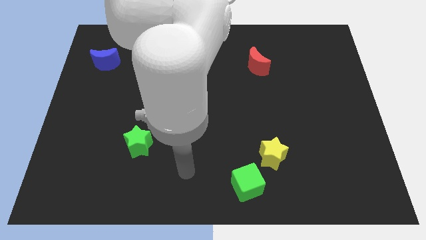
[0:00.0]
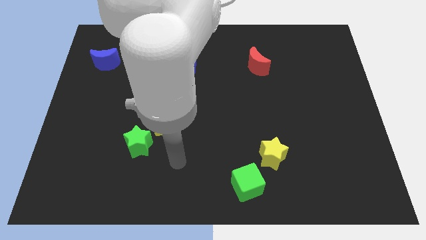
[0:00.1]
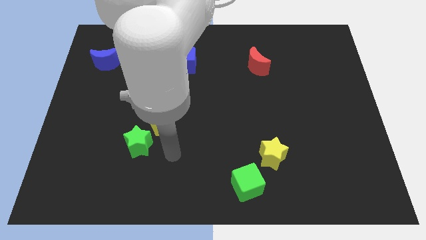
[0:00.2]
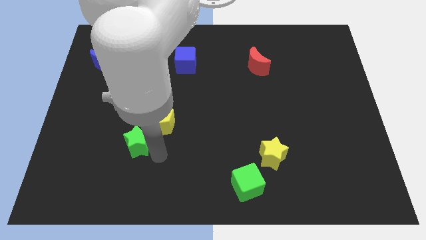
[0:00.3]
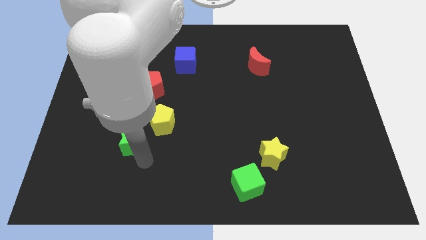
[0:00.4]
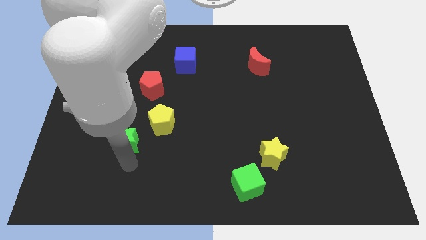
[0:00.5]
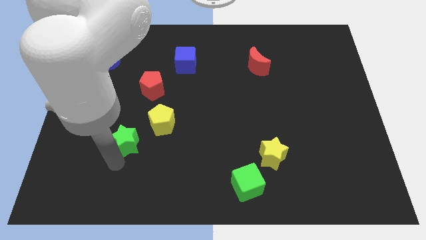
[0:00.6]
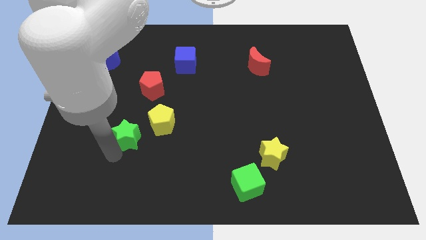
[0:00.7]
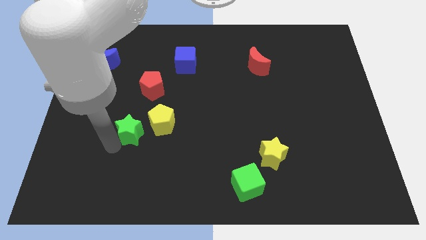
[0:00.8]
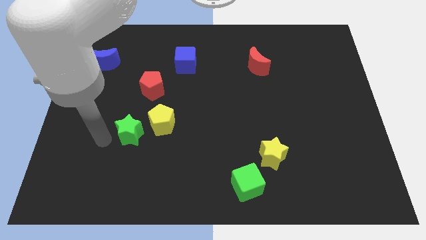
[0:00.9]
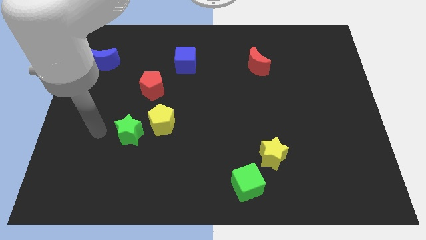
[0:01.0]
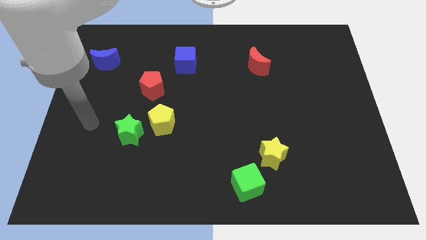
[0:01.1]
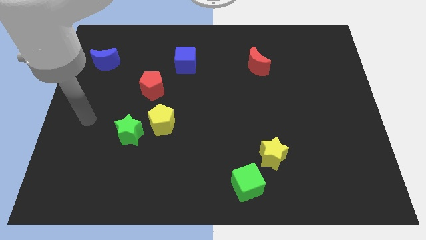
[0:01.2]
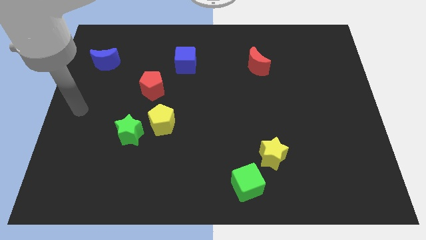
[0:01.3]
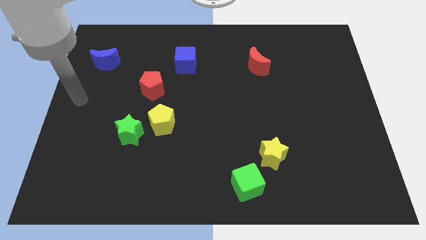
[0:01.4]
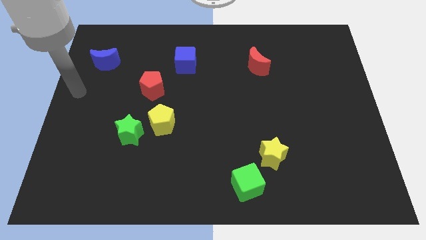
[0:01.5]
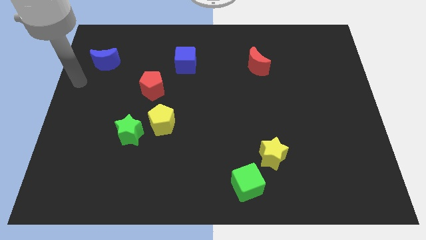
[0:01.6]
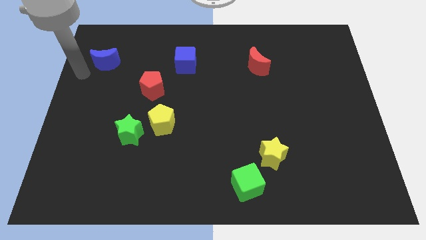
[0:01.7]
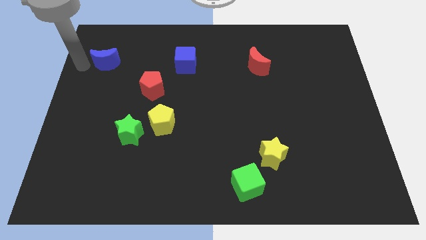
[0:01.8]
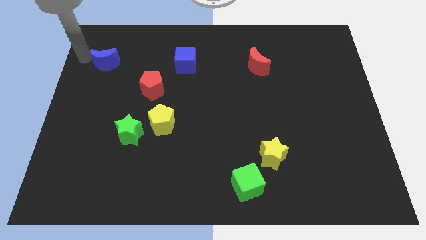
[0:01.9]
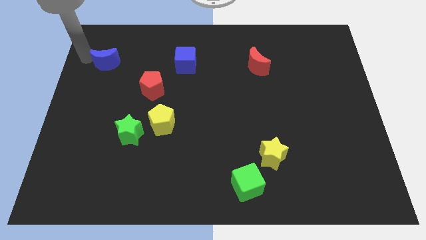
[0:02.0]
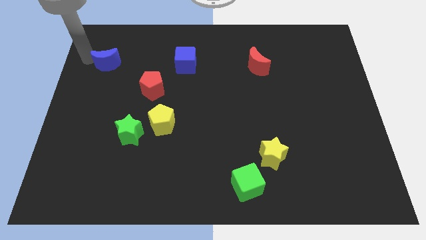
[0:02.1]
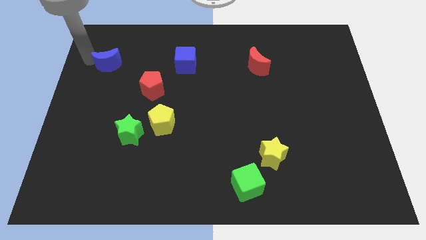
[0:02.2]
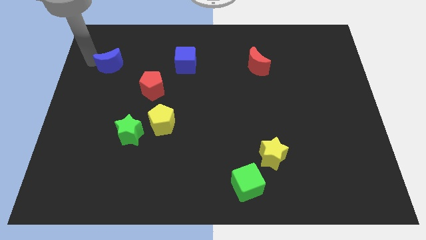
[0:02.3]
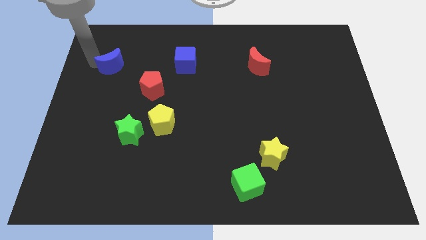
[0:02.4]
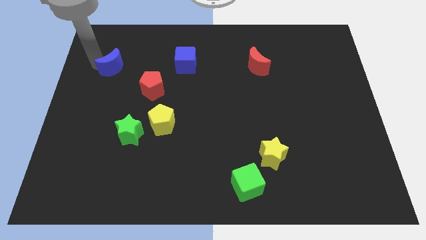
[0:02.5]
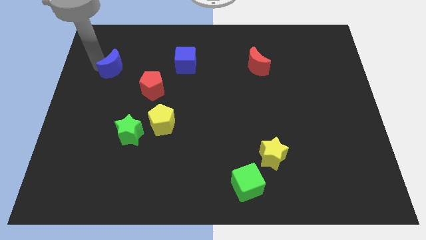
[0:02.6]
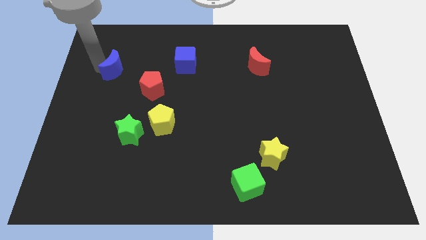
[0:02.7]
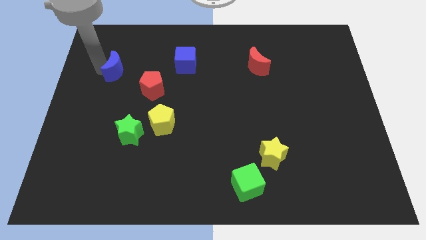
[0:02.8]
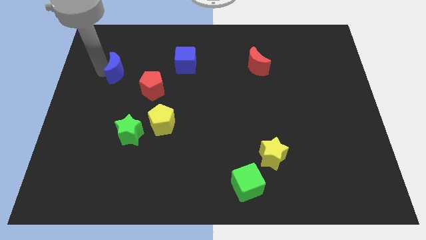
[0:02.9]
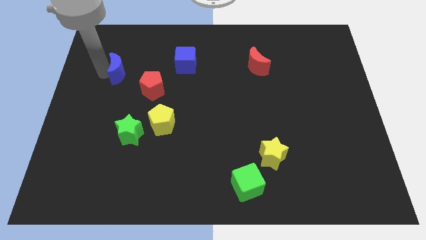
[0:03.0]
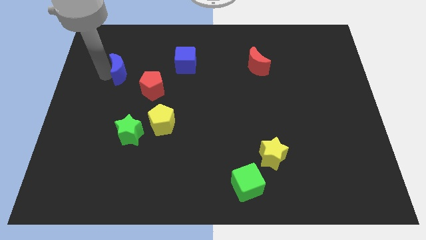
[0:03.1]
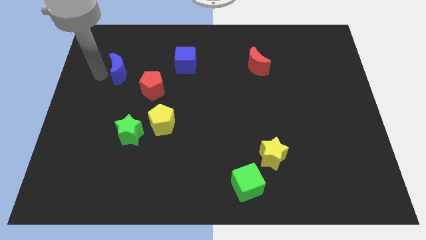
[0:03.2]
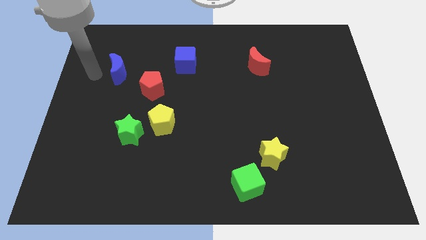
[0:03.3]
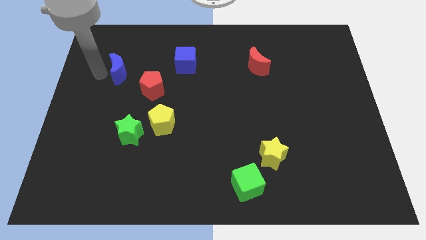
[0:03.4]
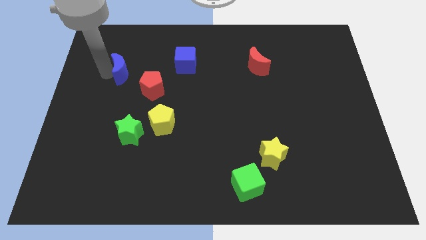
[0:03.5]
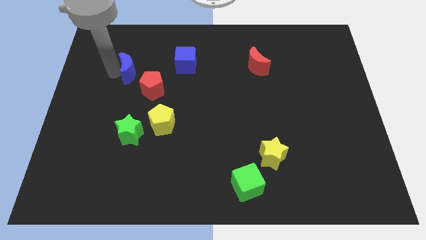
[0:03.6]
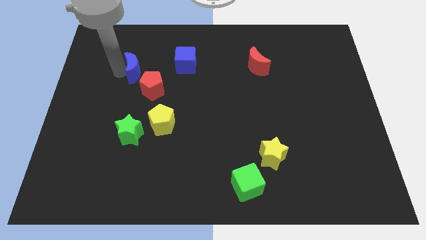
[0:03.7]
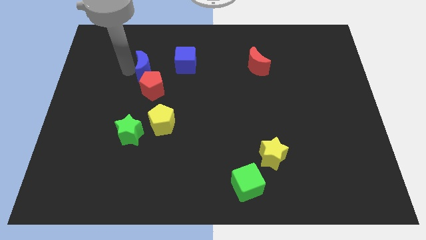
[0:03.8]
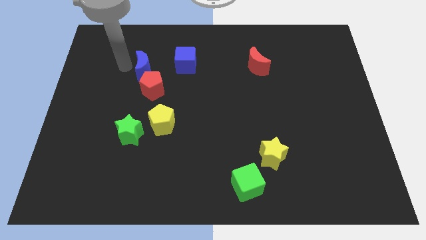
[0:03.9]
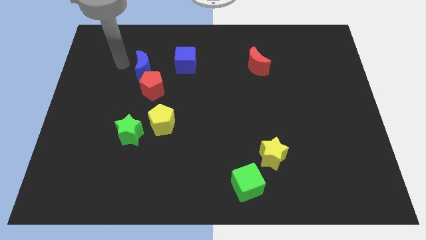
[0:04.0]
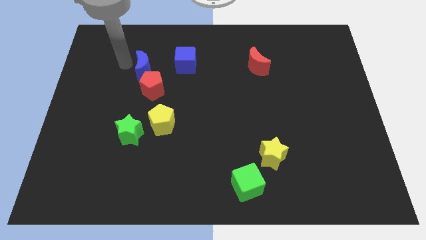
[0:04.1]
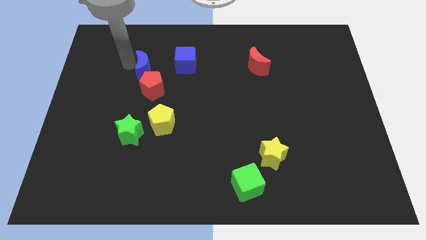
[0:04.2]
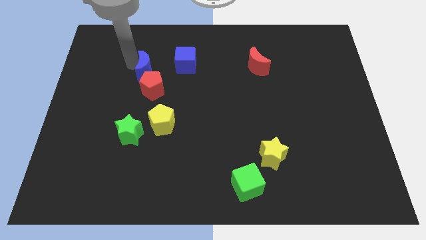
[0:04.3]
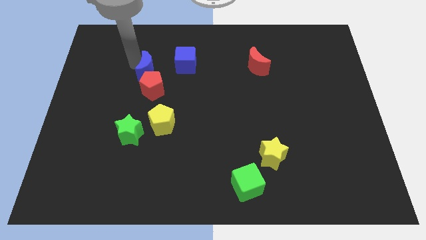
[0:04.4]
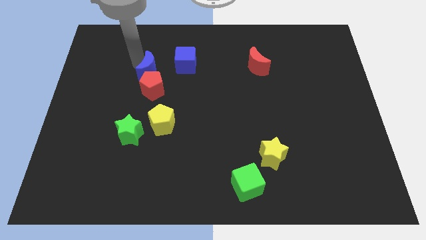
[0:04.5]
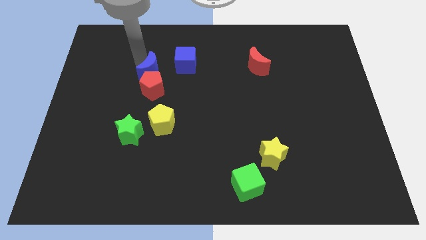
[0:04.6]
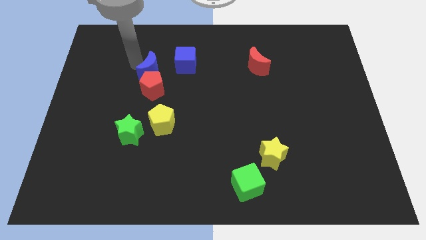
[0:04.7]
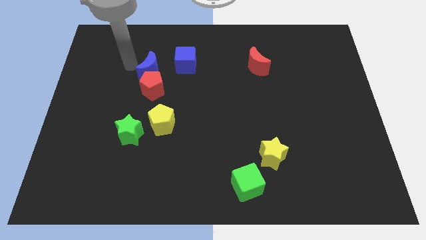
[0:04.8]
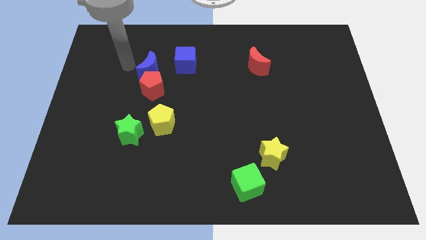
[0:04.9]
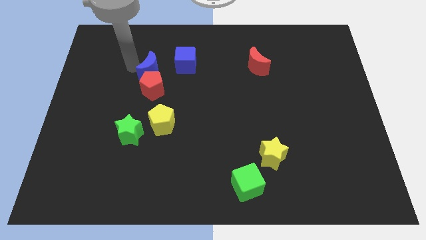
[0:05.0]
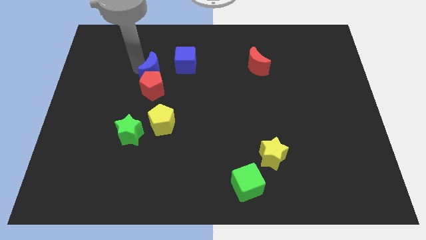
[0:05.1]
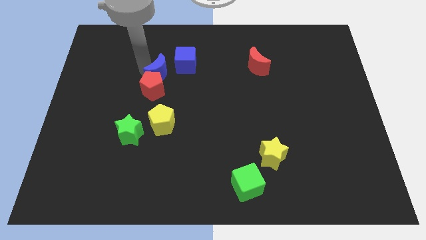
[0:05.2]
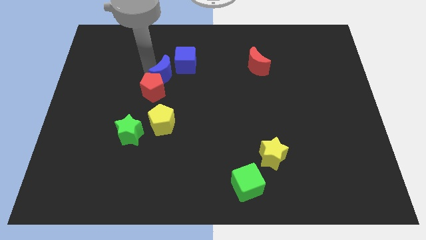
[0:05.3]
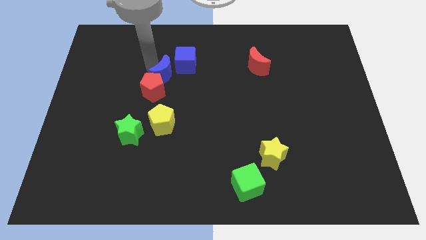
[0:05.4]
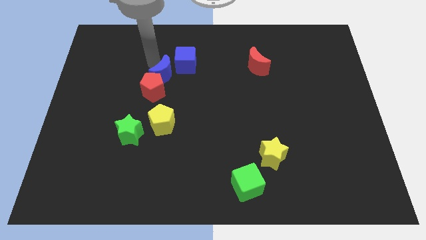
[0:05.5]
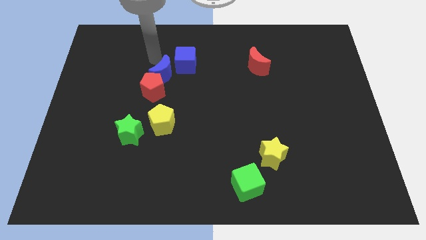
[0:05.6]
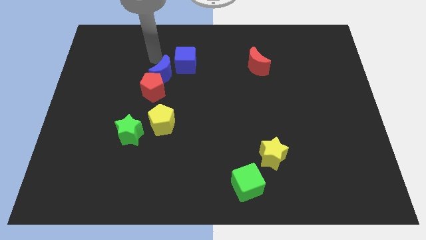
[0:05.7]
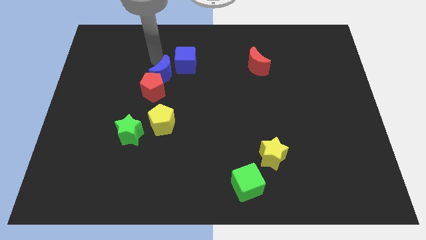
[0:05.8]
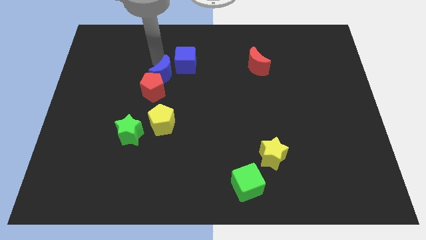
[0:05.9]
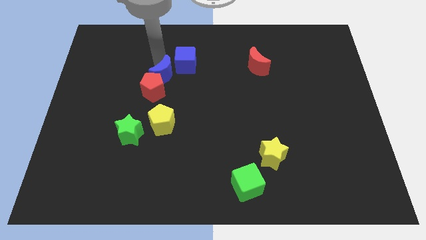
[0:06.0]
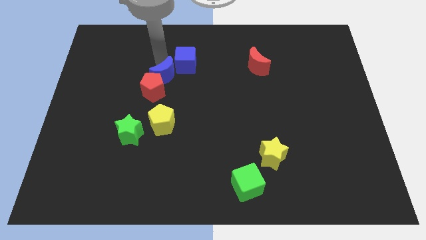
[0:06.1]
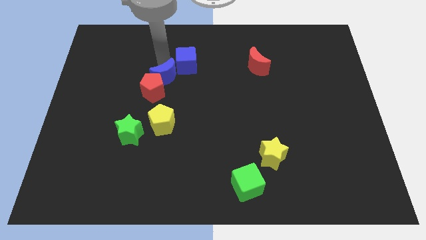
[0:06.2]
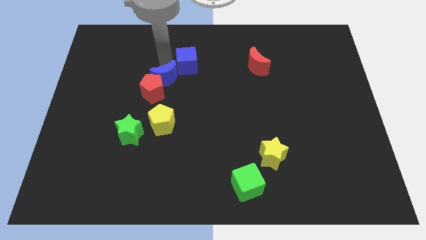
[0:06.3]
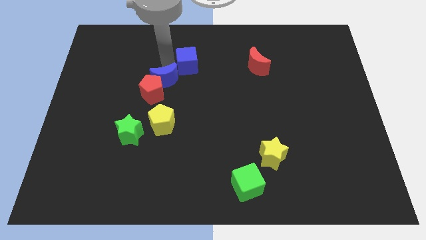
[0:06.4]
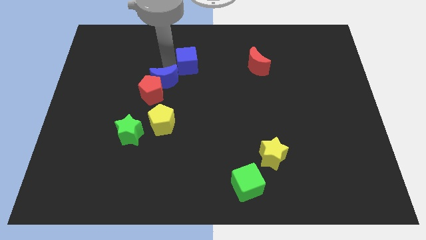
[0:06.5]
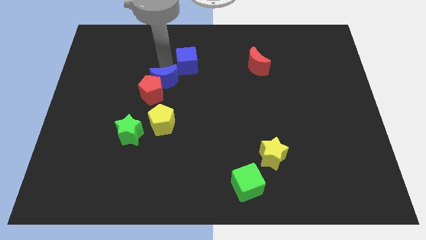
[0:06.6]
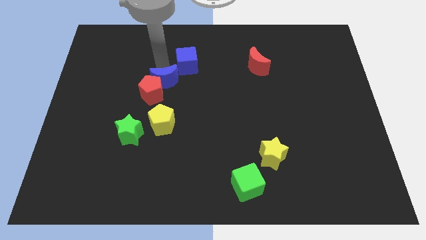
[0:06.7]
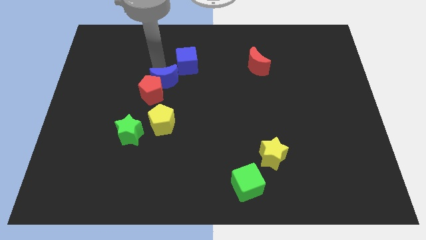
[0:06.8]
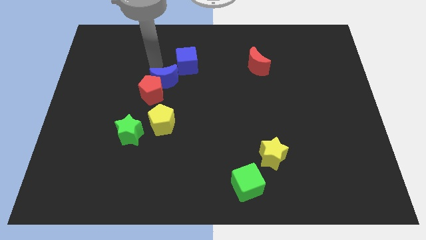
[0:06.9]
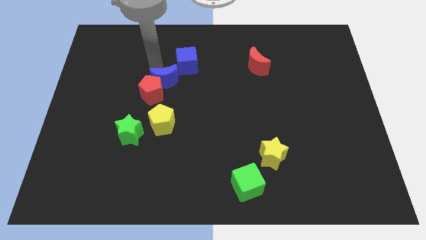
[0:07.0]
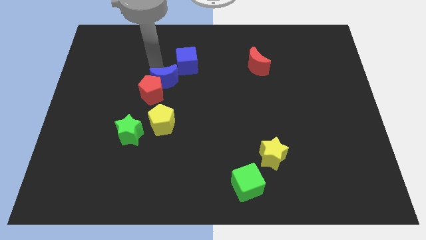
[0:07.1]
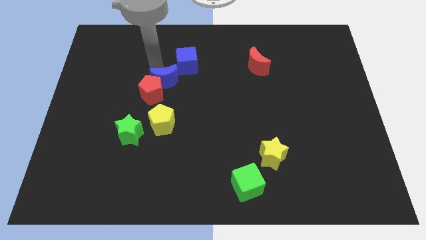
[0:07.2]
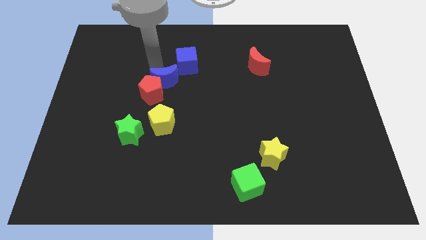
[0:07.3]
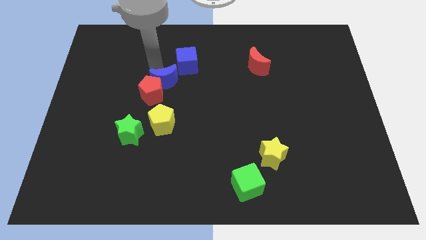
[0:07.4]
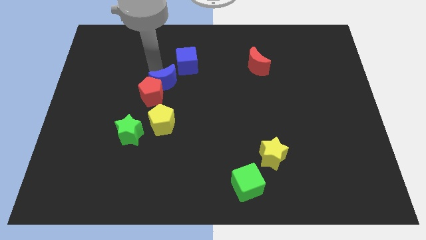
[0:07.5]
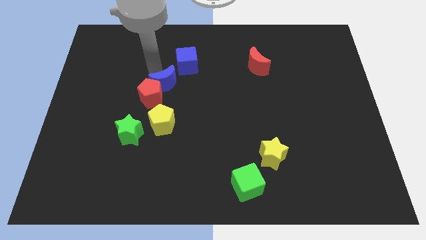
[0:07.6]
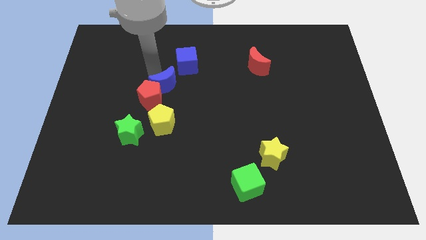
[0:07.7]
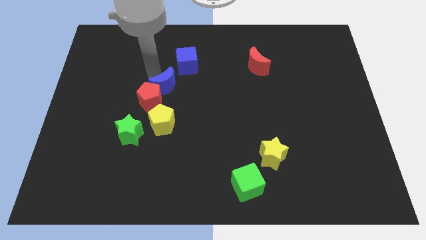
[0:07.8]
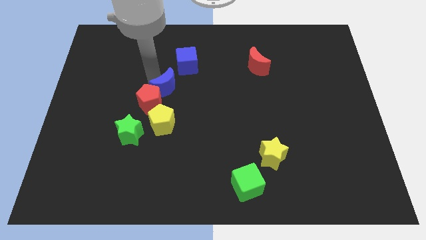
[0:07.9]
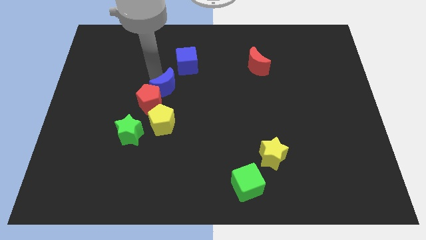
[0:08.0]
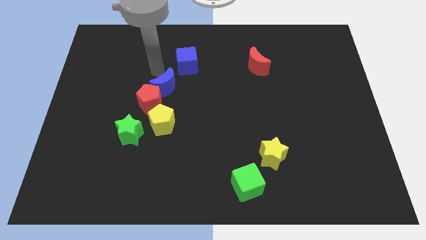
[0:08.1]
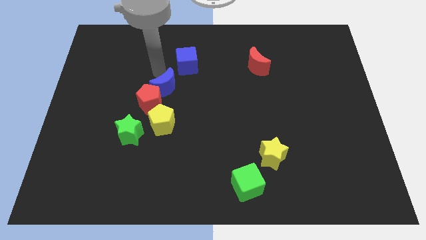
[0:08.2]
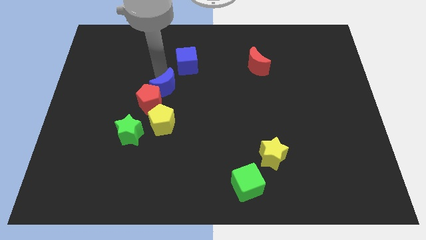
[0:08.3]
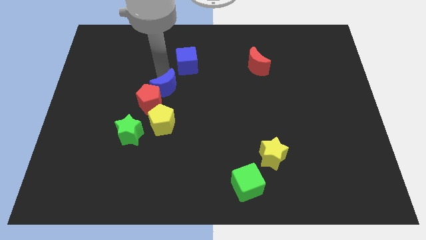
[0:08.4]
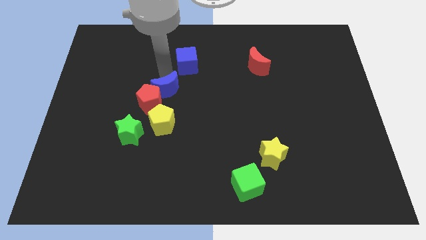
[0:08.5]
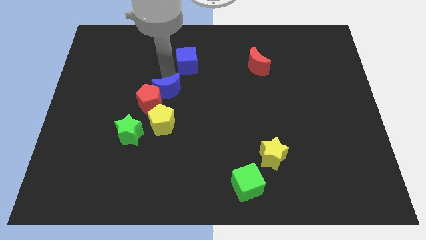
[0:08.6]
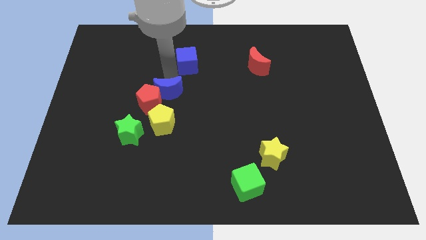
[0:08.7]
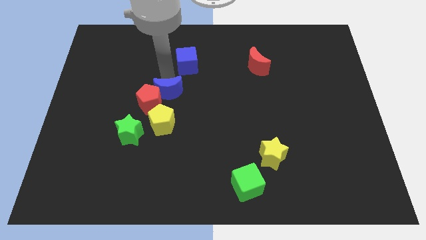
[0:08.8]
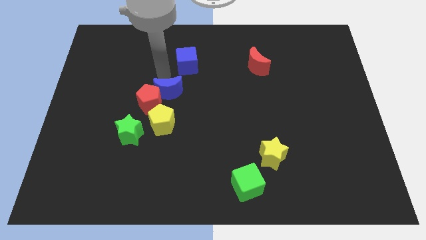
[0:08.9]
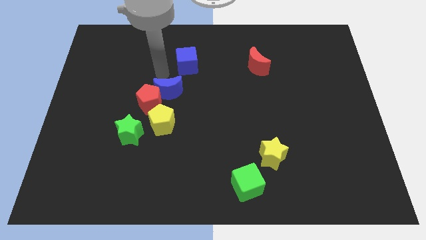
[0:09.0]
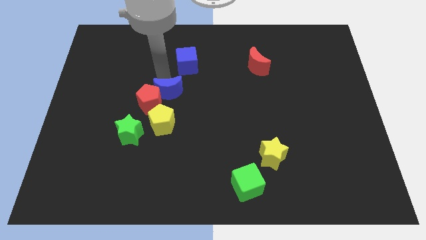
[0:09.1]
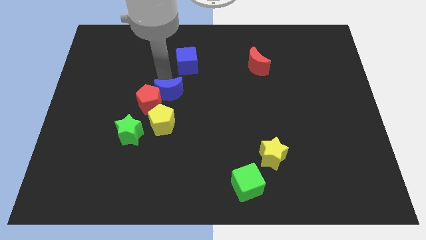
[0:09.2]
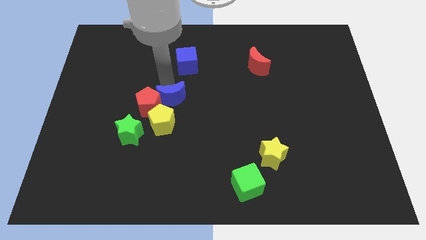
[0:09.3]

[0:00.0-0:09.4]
move the blue moon down and right
